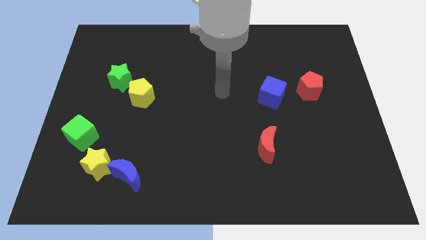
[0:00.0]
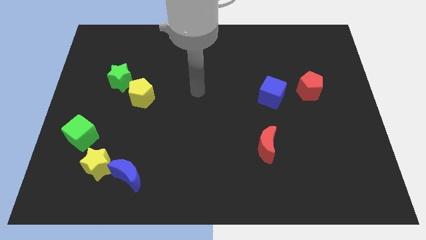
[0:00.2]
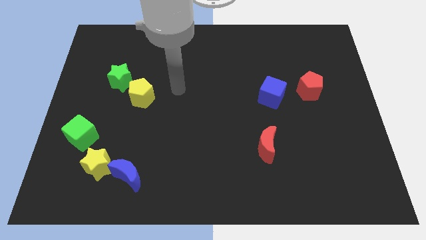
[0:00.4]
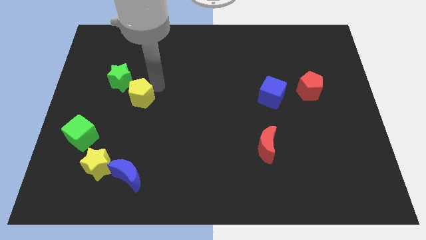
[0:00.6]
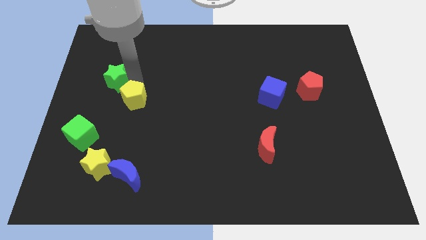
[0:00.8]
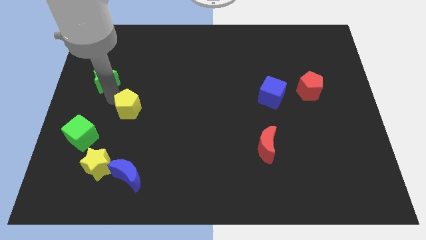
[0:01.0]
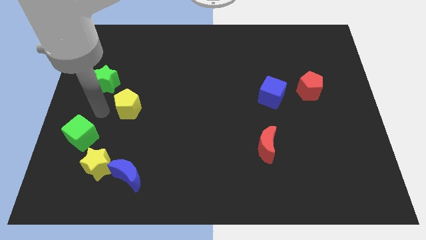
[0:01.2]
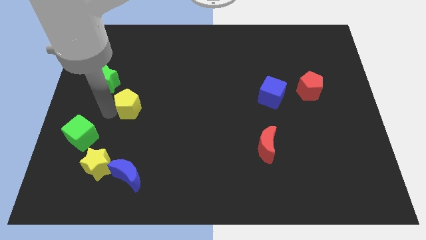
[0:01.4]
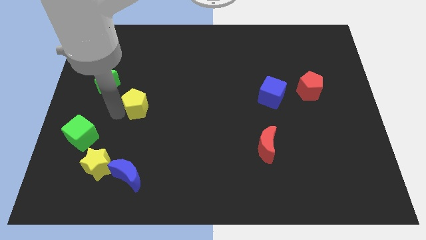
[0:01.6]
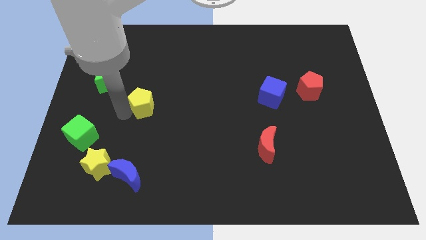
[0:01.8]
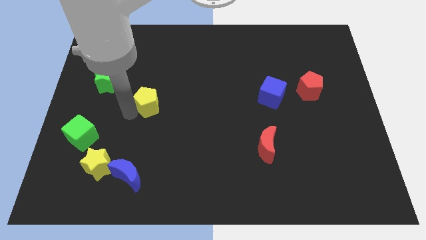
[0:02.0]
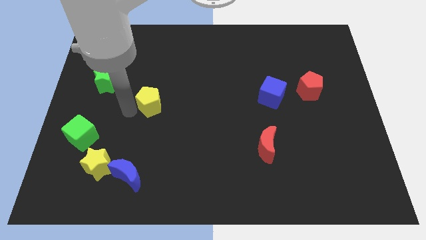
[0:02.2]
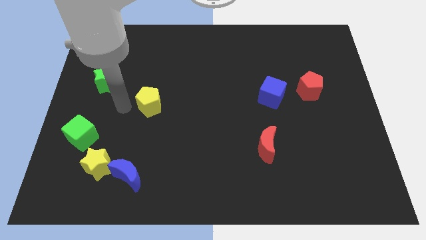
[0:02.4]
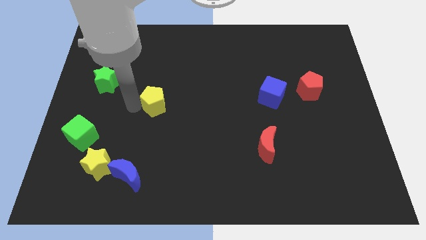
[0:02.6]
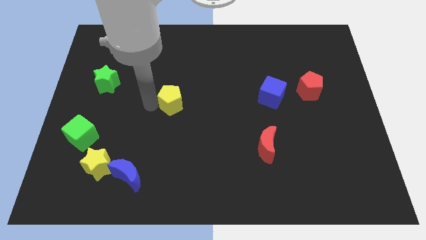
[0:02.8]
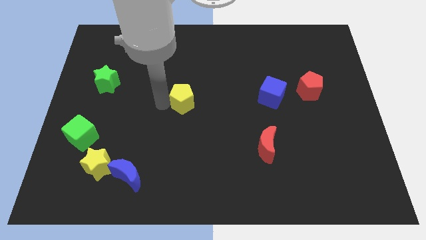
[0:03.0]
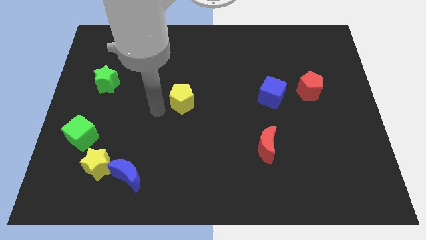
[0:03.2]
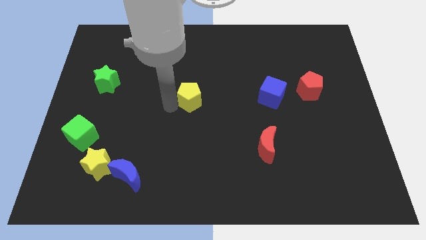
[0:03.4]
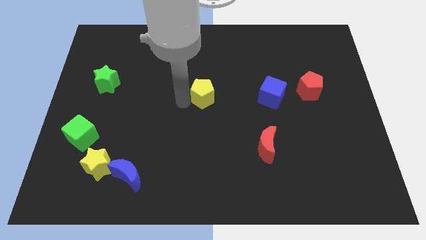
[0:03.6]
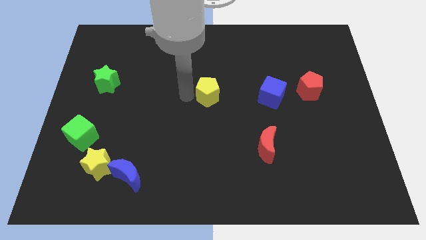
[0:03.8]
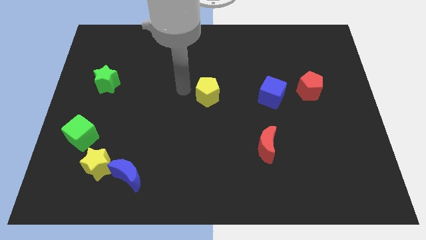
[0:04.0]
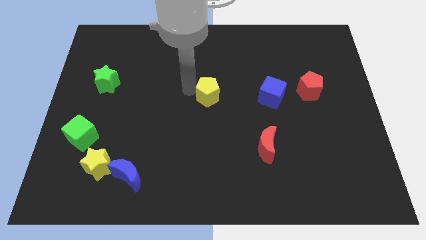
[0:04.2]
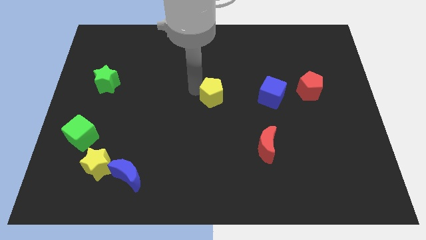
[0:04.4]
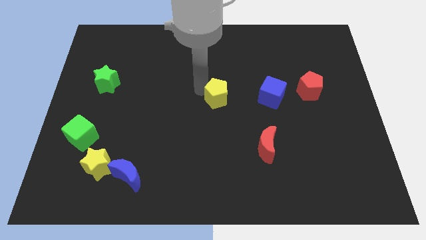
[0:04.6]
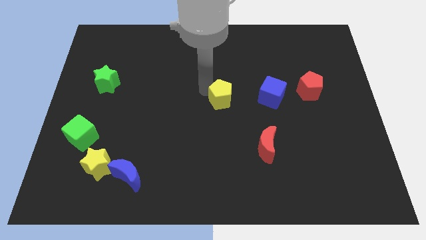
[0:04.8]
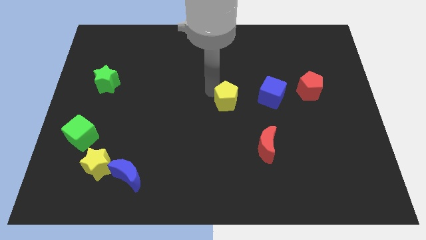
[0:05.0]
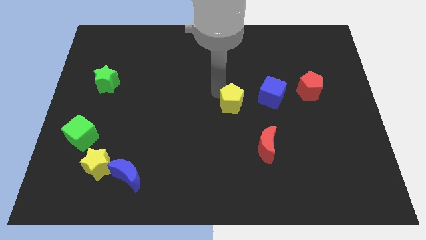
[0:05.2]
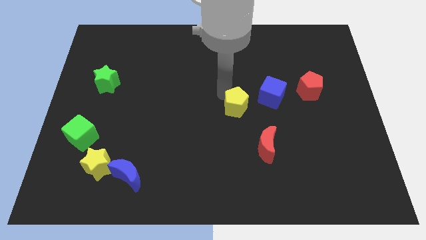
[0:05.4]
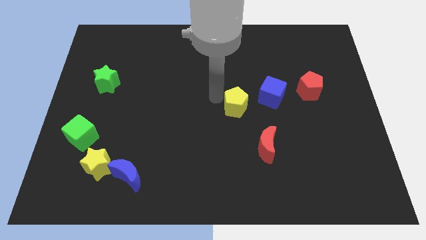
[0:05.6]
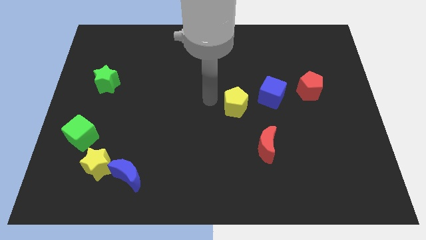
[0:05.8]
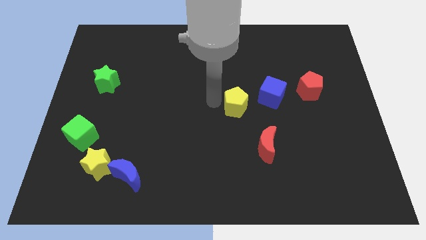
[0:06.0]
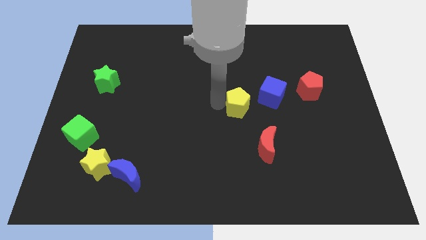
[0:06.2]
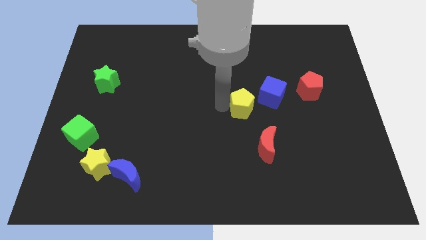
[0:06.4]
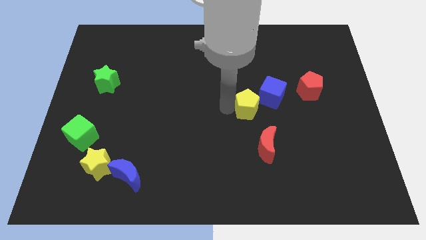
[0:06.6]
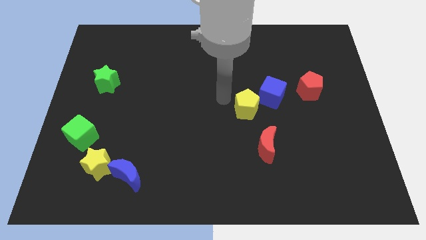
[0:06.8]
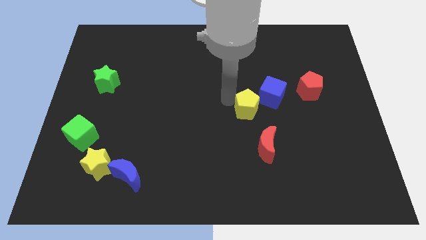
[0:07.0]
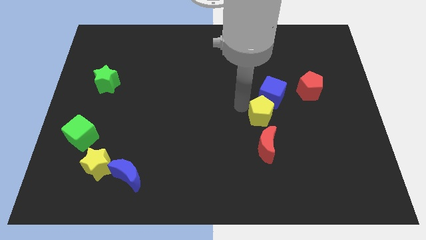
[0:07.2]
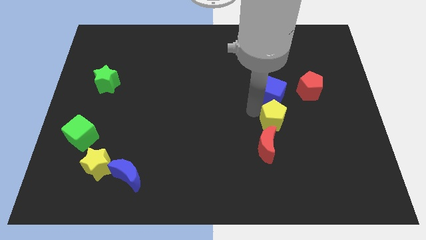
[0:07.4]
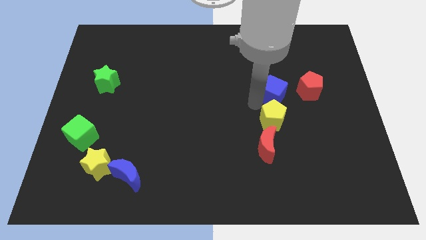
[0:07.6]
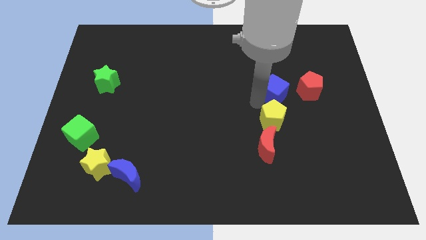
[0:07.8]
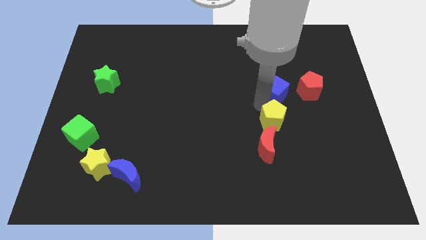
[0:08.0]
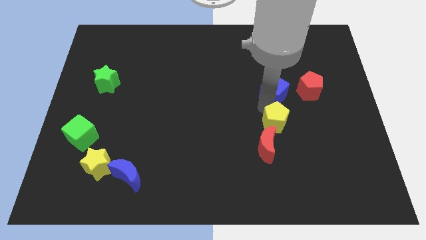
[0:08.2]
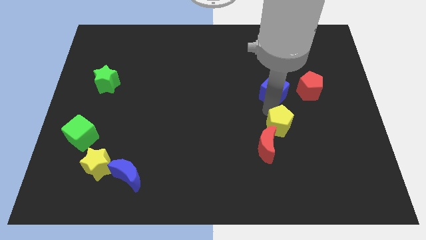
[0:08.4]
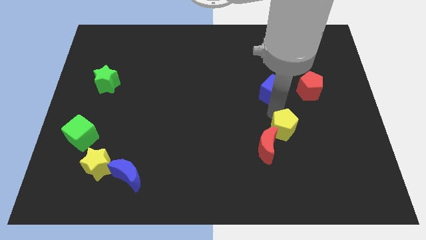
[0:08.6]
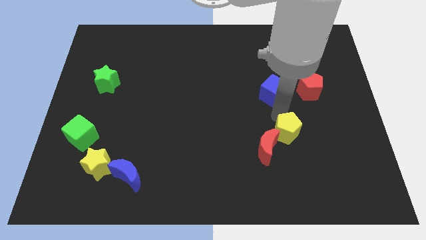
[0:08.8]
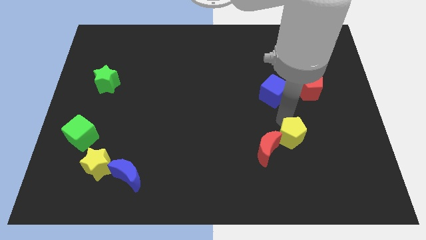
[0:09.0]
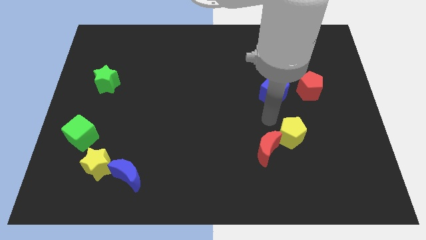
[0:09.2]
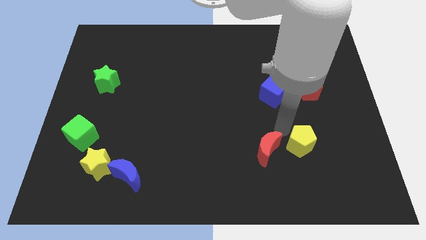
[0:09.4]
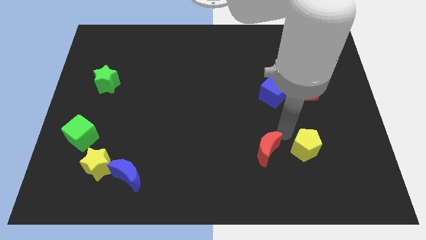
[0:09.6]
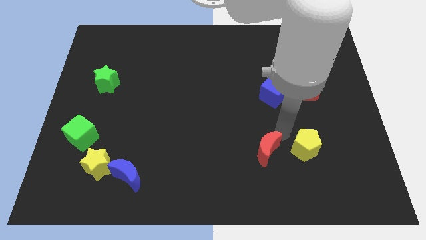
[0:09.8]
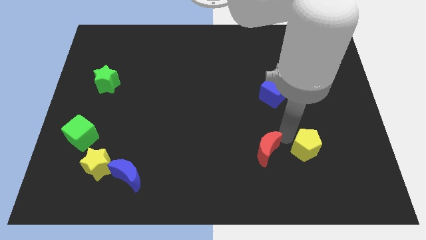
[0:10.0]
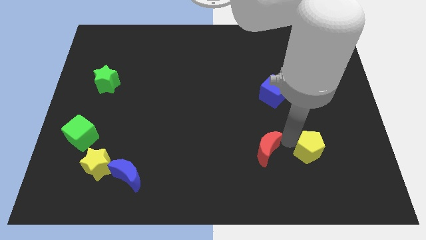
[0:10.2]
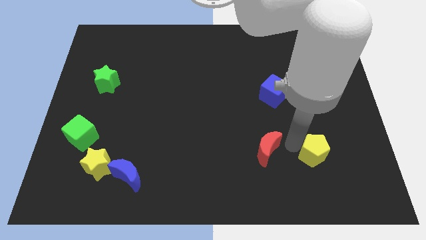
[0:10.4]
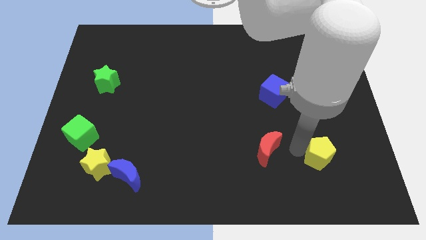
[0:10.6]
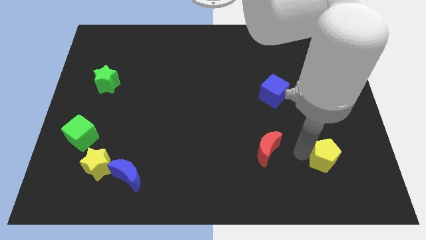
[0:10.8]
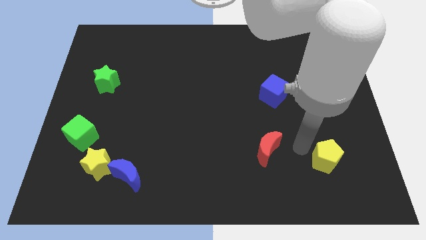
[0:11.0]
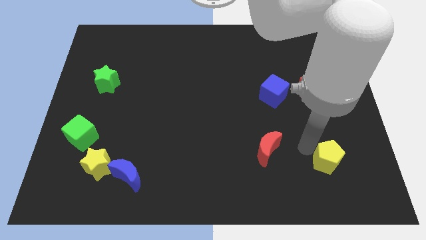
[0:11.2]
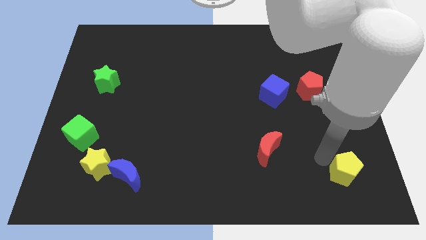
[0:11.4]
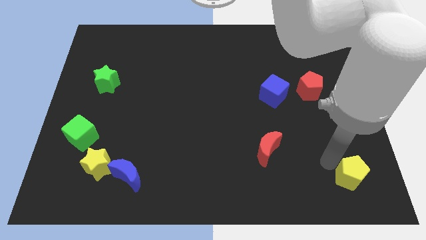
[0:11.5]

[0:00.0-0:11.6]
push the yellow pentagon to the bottom right corner
